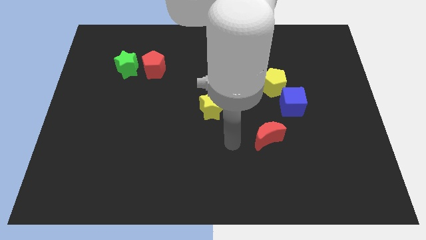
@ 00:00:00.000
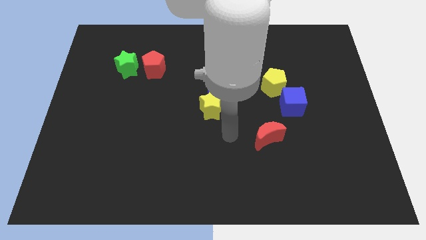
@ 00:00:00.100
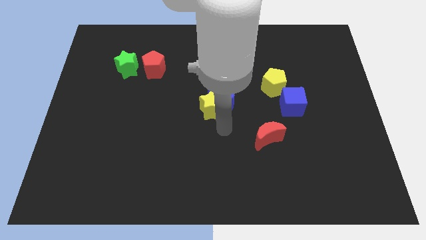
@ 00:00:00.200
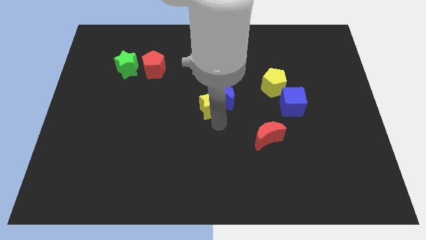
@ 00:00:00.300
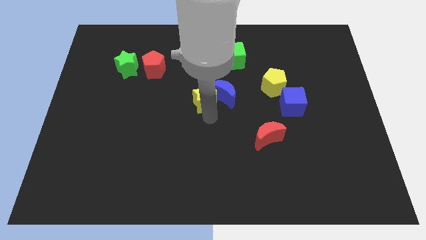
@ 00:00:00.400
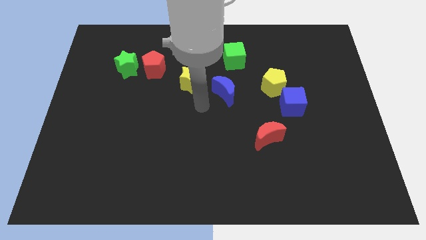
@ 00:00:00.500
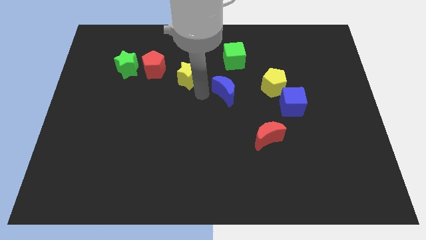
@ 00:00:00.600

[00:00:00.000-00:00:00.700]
move the blue moon away from the yellow star

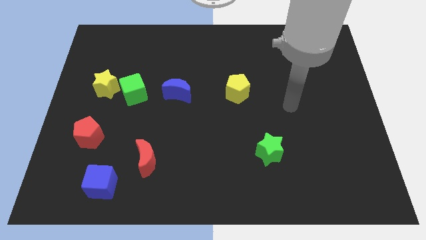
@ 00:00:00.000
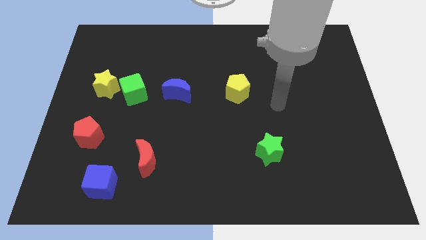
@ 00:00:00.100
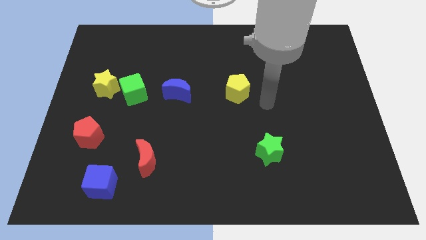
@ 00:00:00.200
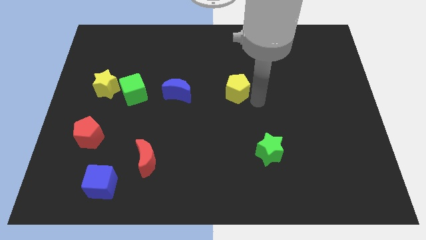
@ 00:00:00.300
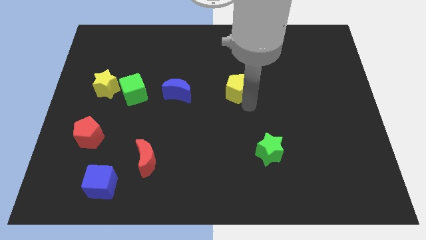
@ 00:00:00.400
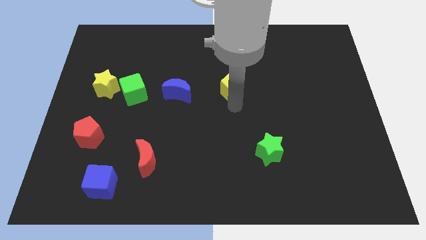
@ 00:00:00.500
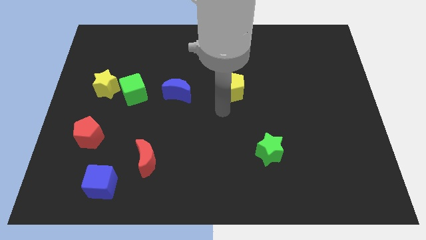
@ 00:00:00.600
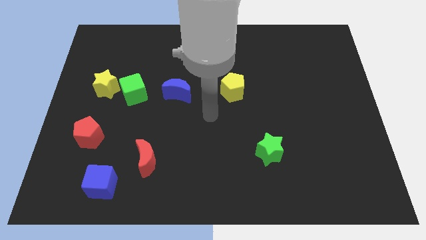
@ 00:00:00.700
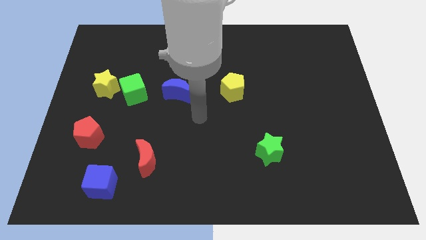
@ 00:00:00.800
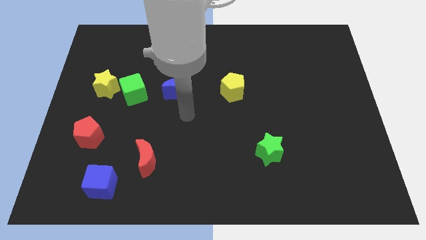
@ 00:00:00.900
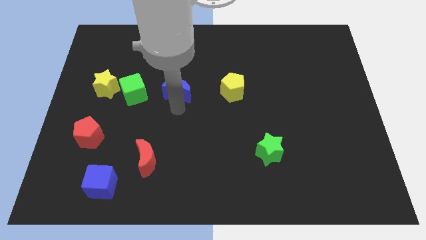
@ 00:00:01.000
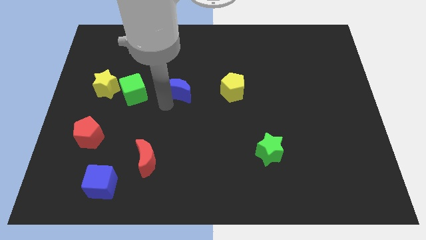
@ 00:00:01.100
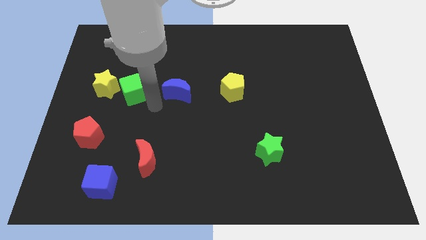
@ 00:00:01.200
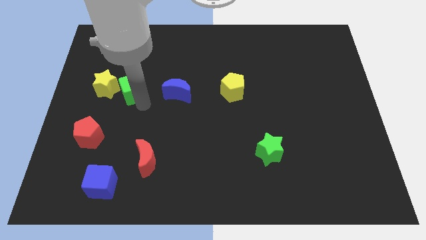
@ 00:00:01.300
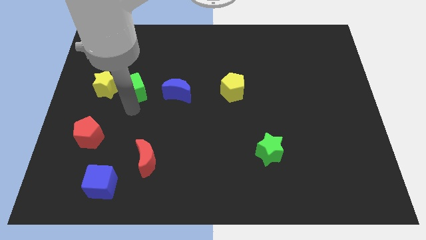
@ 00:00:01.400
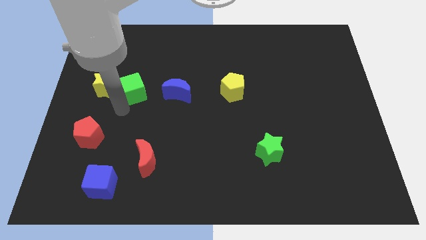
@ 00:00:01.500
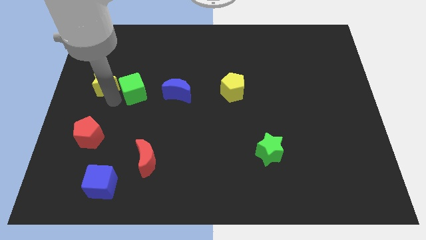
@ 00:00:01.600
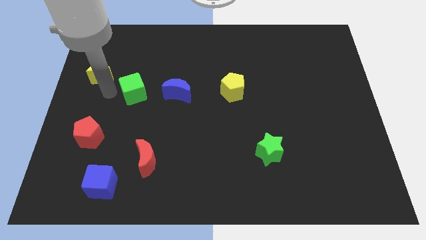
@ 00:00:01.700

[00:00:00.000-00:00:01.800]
move the green cube away from the yellow star

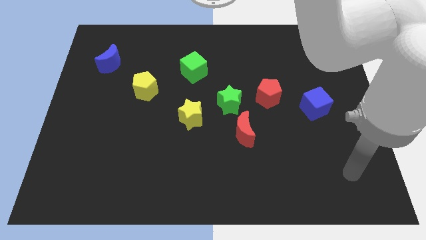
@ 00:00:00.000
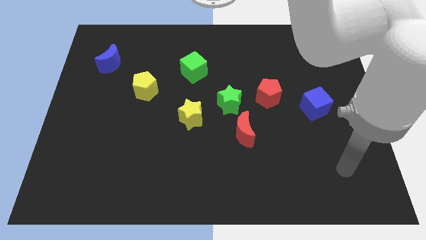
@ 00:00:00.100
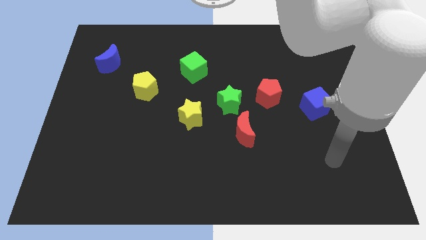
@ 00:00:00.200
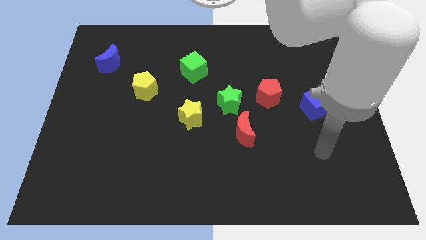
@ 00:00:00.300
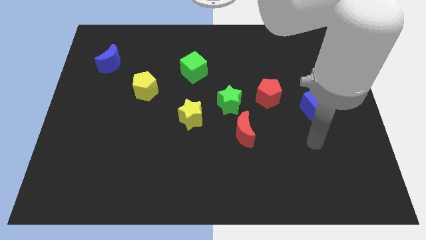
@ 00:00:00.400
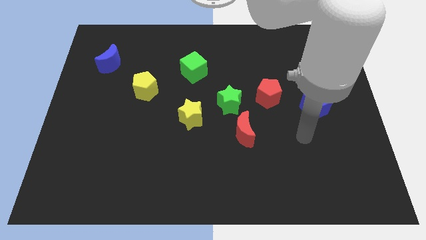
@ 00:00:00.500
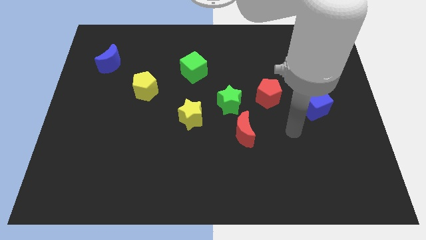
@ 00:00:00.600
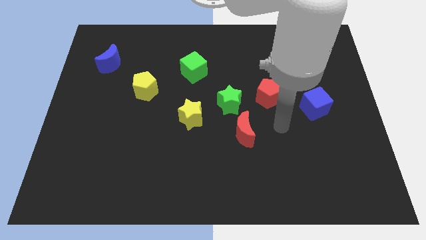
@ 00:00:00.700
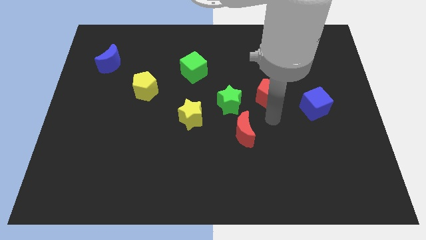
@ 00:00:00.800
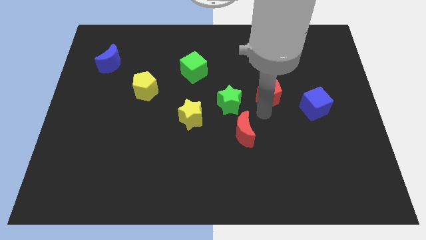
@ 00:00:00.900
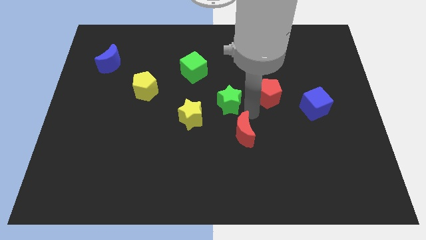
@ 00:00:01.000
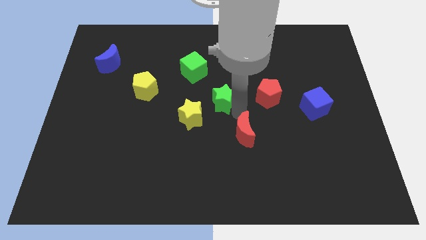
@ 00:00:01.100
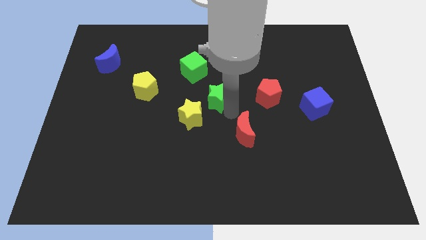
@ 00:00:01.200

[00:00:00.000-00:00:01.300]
move the red moon away from the green star

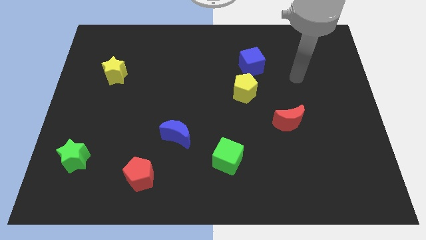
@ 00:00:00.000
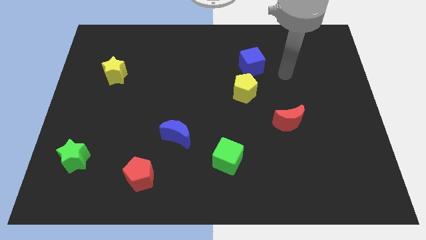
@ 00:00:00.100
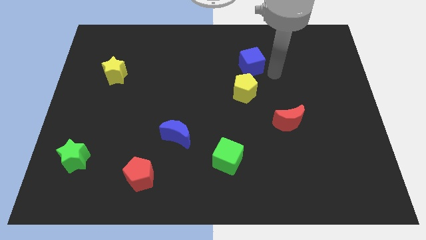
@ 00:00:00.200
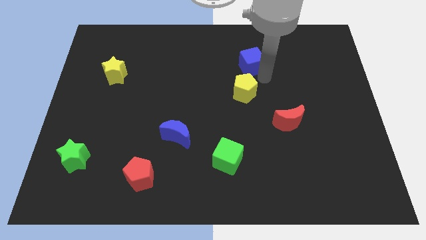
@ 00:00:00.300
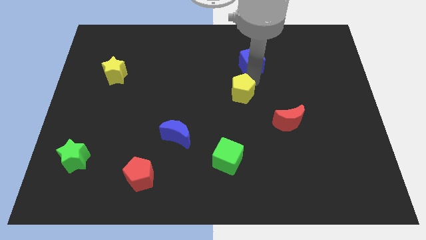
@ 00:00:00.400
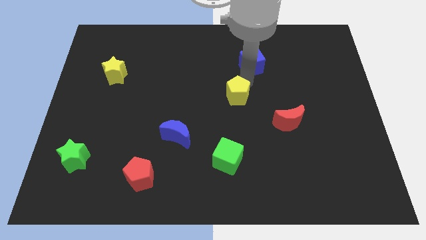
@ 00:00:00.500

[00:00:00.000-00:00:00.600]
pull the blue cube apart from the yellow pentagon

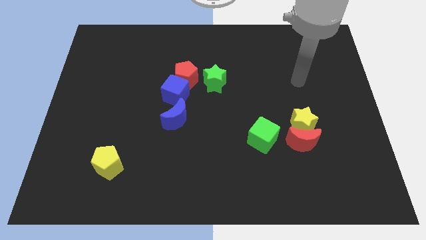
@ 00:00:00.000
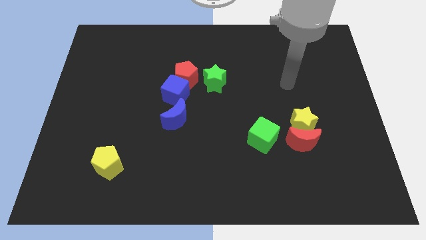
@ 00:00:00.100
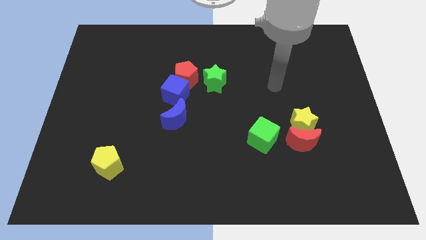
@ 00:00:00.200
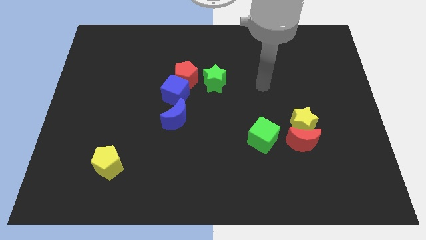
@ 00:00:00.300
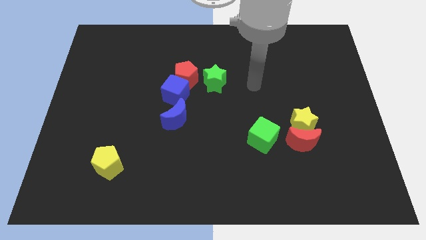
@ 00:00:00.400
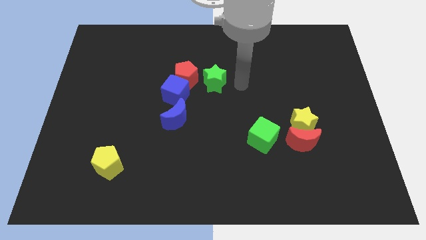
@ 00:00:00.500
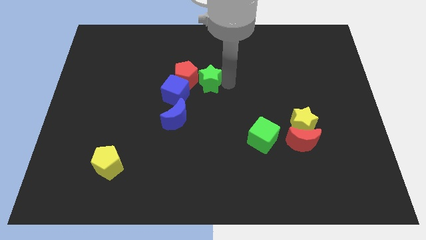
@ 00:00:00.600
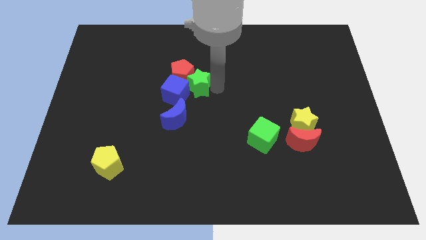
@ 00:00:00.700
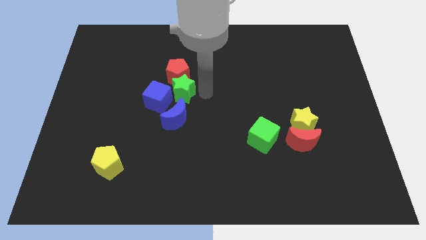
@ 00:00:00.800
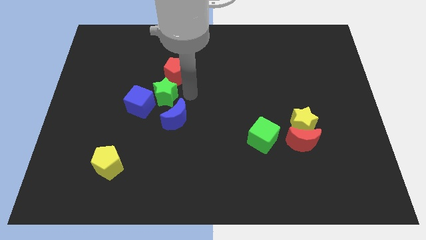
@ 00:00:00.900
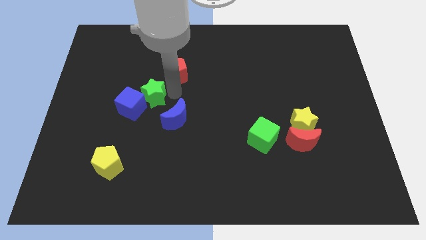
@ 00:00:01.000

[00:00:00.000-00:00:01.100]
move the red pentagon away from the blue cube and green star

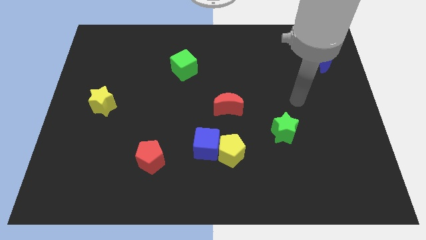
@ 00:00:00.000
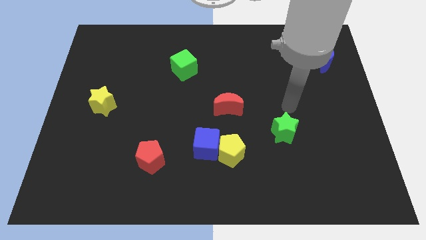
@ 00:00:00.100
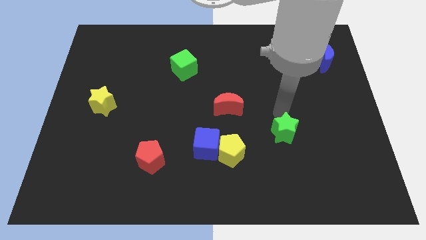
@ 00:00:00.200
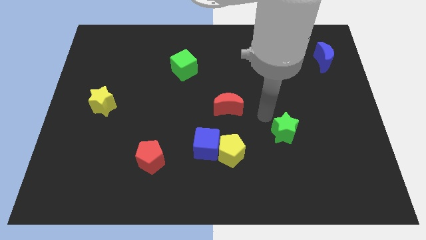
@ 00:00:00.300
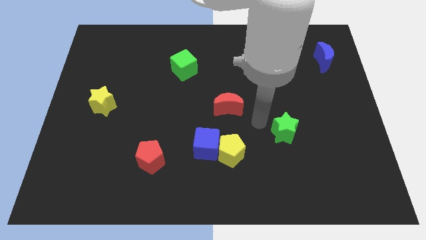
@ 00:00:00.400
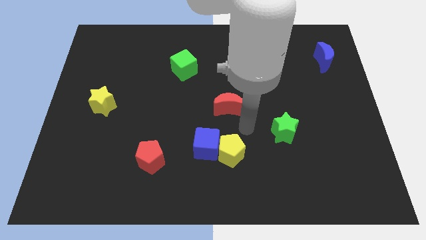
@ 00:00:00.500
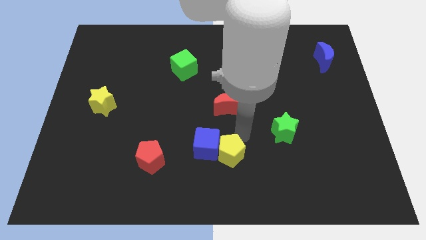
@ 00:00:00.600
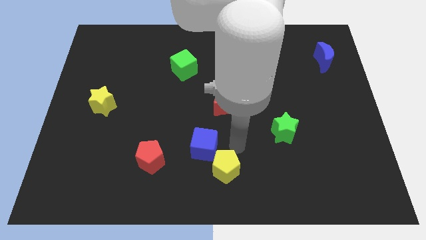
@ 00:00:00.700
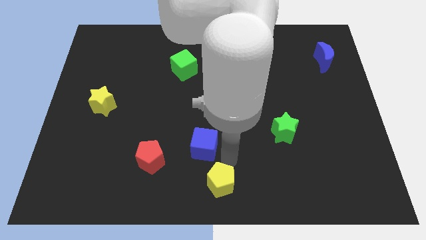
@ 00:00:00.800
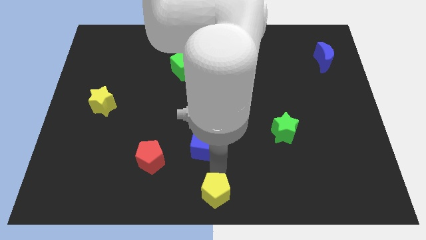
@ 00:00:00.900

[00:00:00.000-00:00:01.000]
move the blue cube away from the yellow pentagon

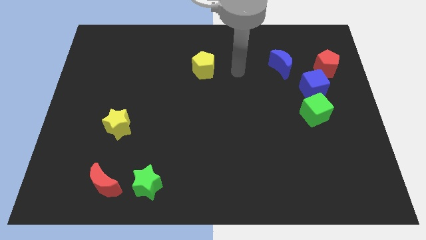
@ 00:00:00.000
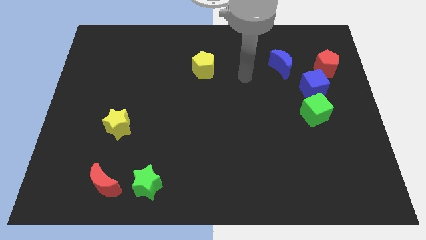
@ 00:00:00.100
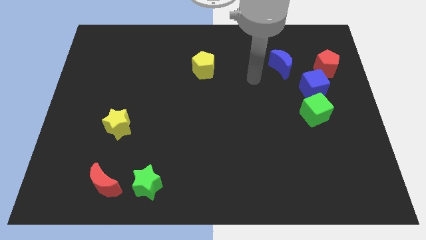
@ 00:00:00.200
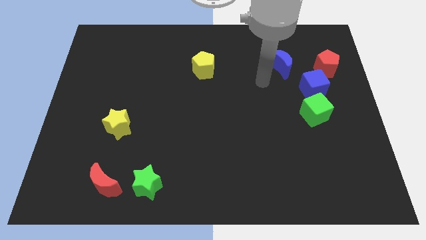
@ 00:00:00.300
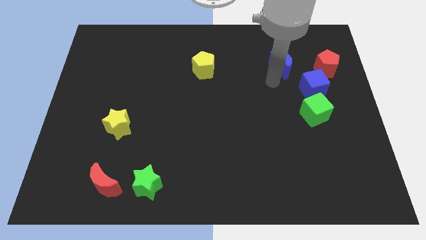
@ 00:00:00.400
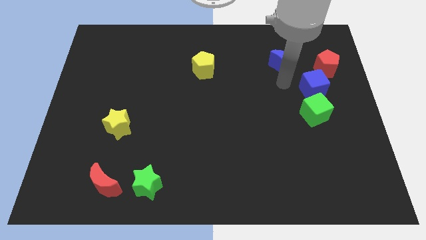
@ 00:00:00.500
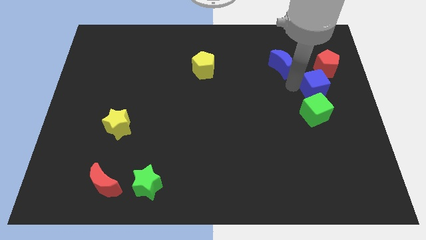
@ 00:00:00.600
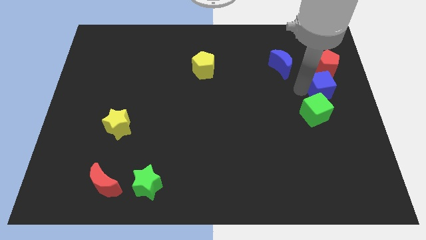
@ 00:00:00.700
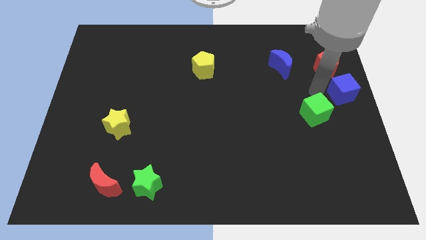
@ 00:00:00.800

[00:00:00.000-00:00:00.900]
separate the green cube from the blue cube

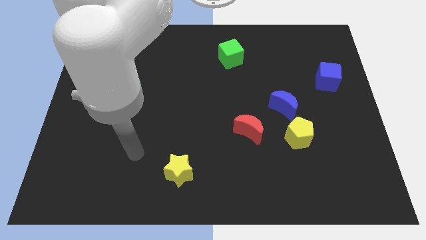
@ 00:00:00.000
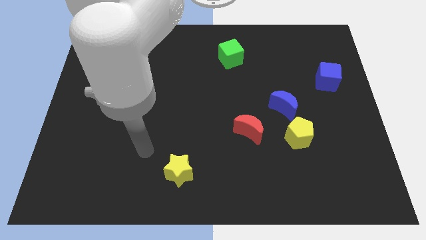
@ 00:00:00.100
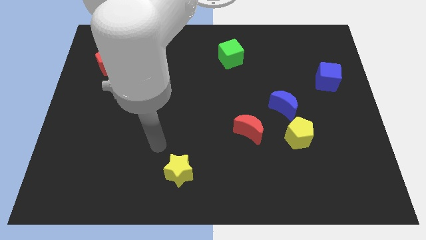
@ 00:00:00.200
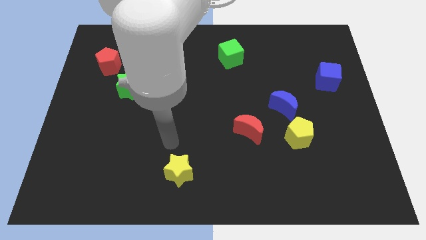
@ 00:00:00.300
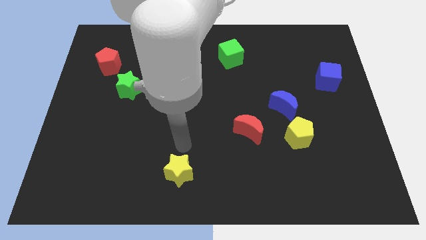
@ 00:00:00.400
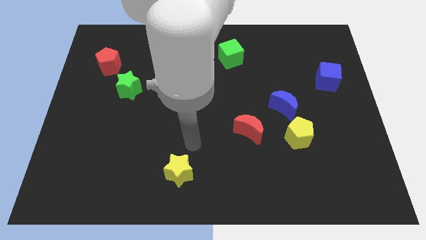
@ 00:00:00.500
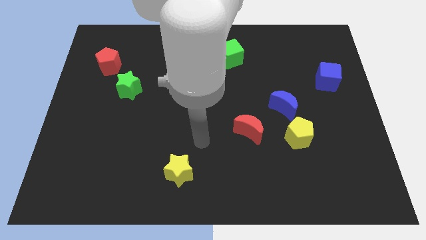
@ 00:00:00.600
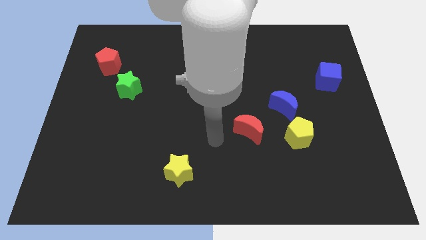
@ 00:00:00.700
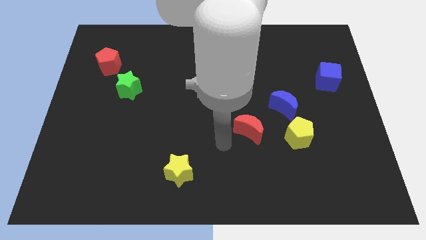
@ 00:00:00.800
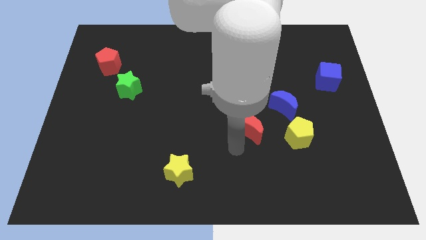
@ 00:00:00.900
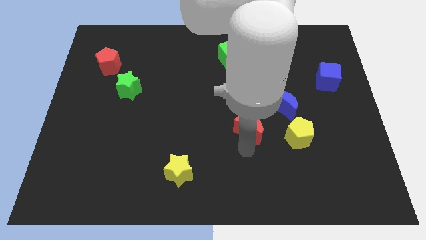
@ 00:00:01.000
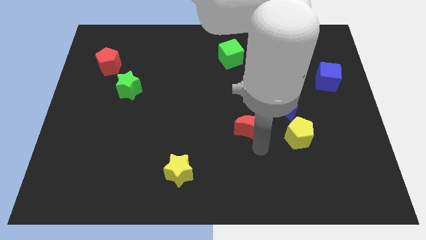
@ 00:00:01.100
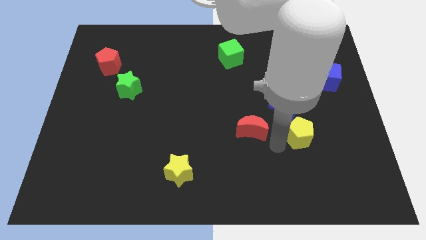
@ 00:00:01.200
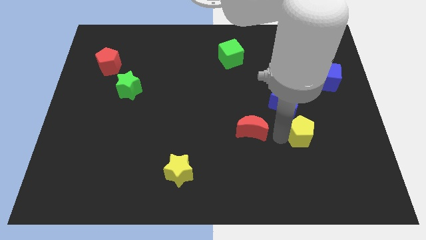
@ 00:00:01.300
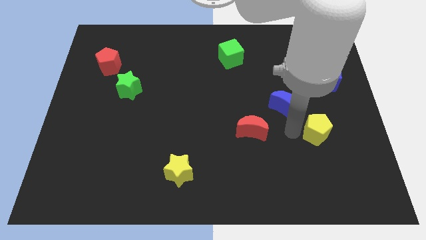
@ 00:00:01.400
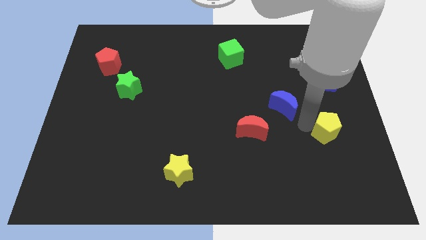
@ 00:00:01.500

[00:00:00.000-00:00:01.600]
separate the blue moon from the yellow pentagon
